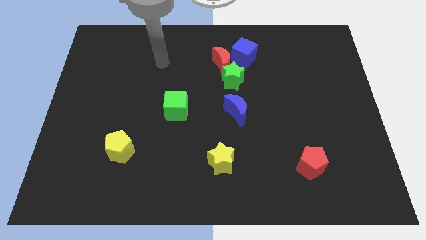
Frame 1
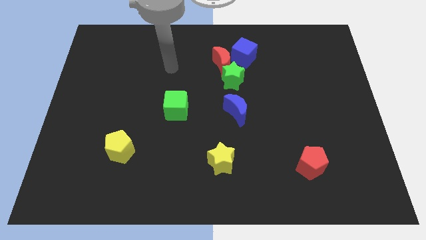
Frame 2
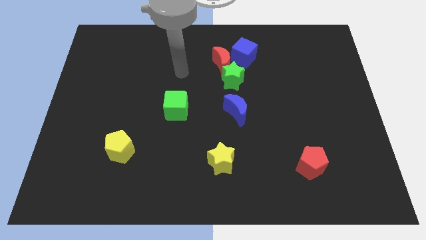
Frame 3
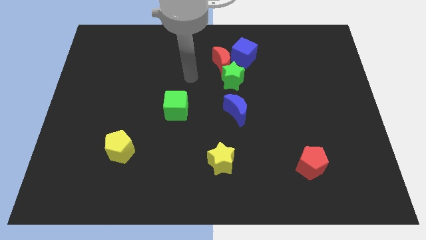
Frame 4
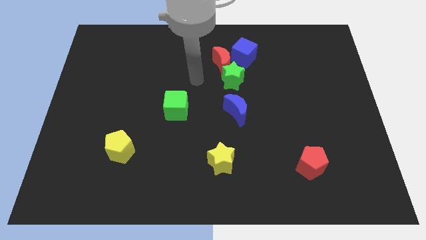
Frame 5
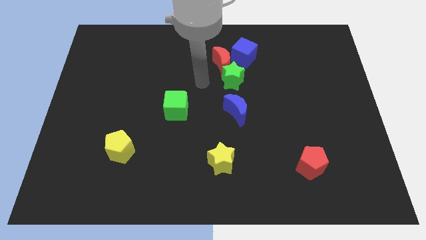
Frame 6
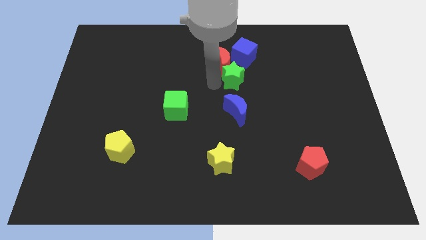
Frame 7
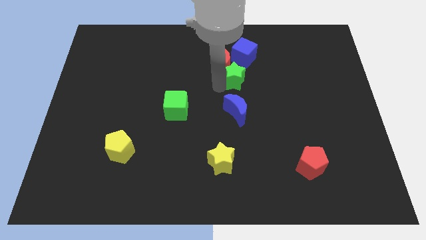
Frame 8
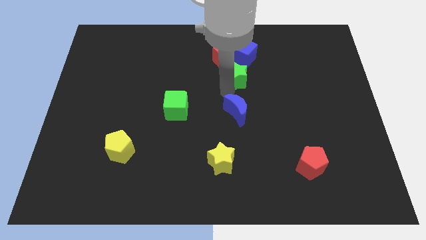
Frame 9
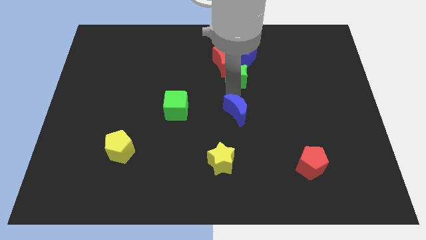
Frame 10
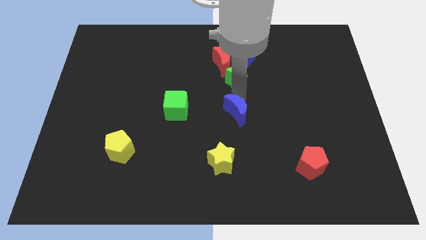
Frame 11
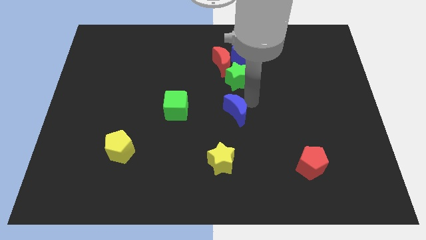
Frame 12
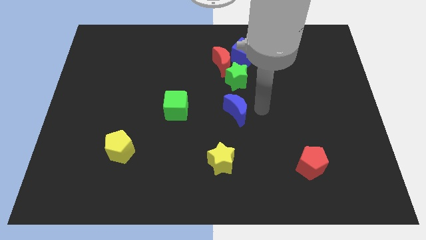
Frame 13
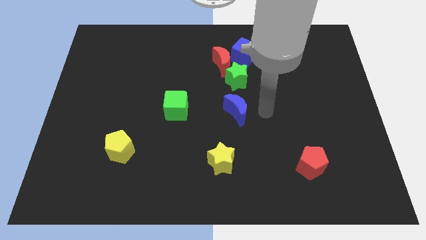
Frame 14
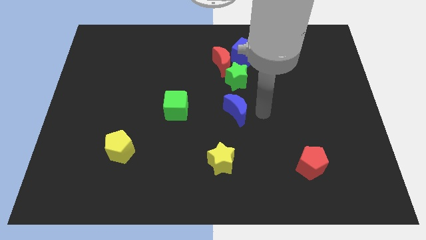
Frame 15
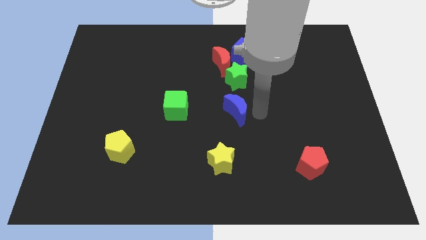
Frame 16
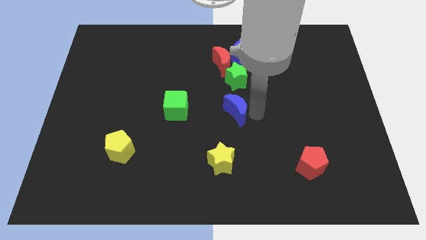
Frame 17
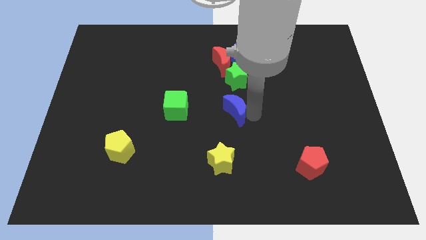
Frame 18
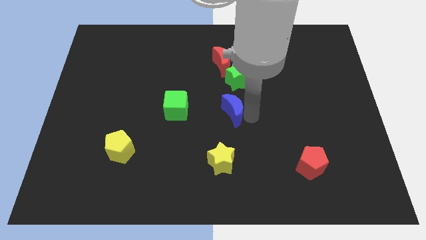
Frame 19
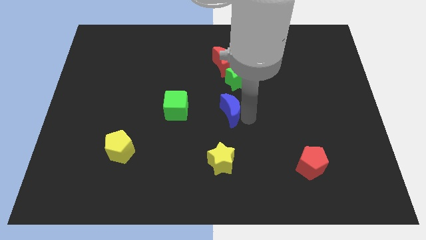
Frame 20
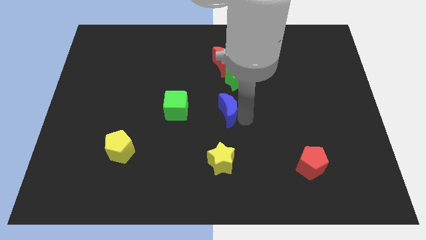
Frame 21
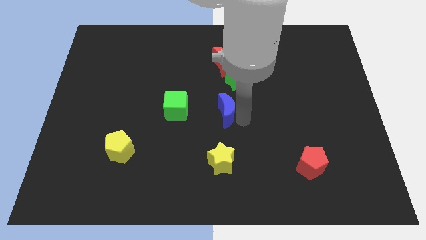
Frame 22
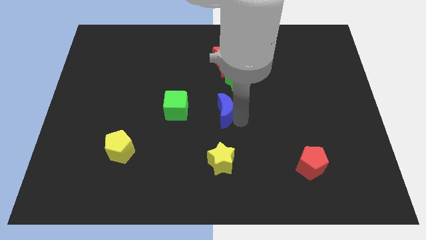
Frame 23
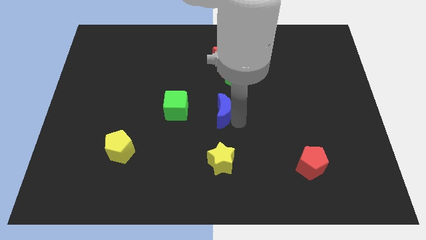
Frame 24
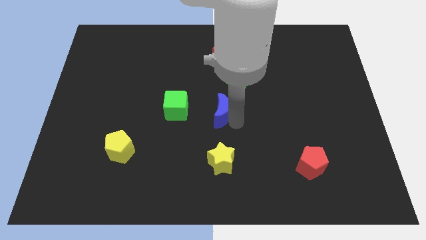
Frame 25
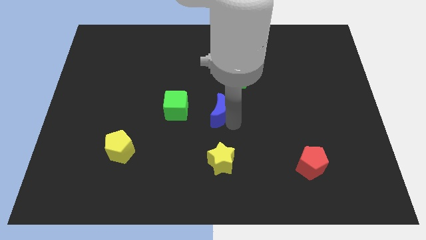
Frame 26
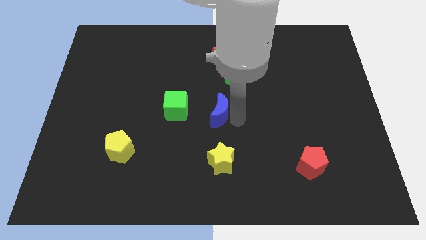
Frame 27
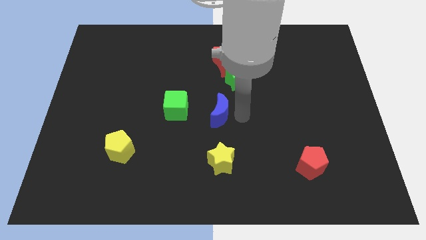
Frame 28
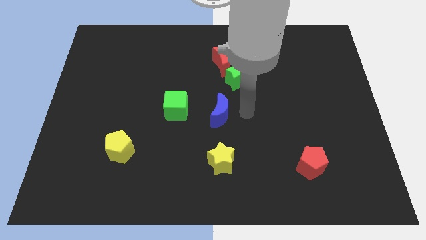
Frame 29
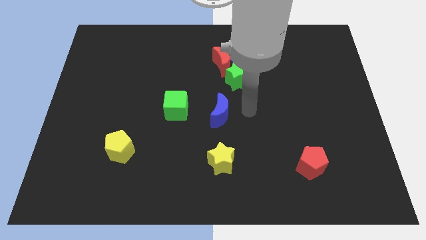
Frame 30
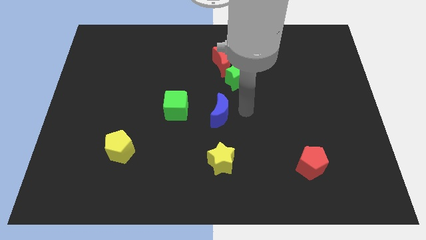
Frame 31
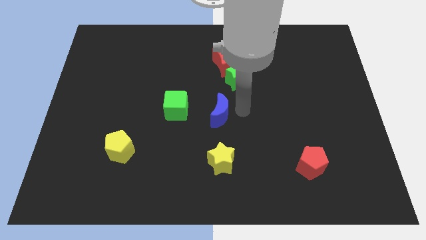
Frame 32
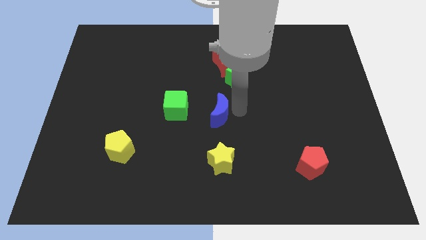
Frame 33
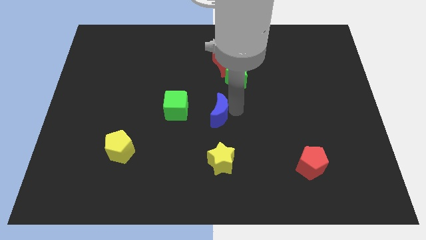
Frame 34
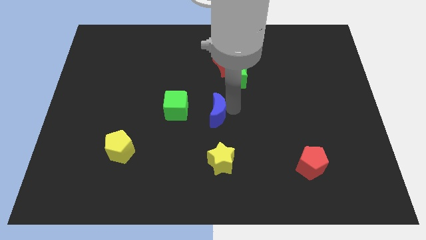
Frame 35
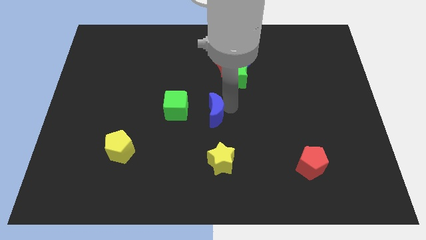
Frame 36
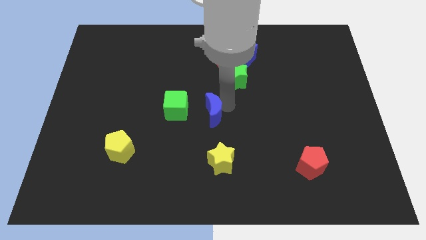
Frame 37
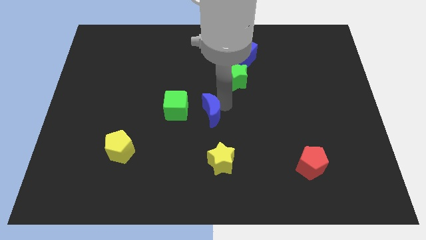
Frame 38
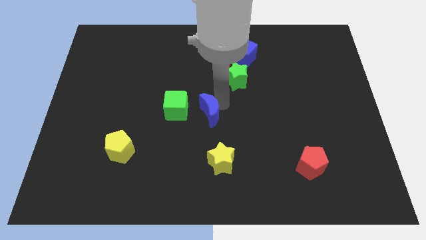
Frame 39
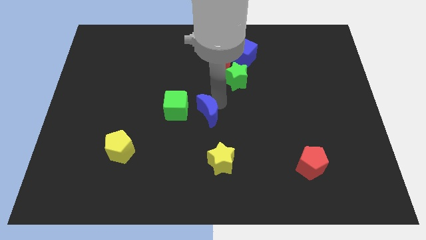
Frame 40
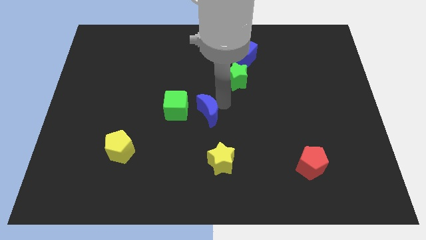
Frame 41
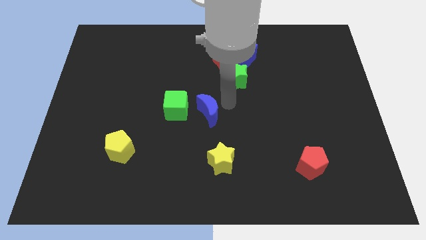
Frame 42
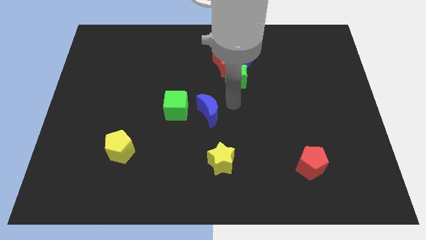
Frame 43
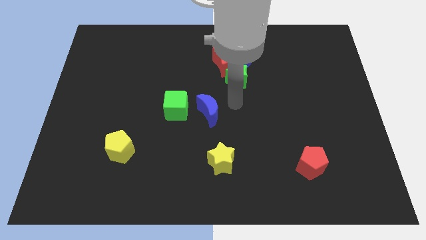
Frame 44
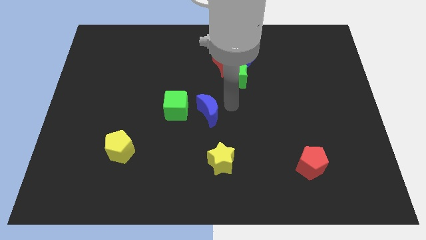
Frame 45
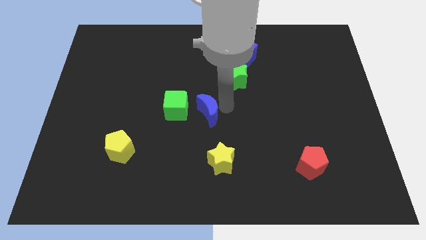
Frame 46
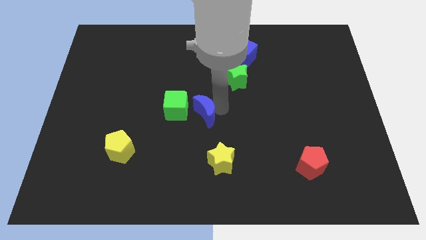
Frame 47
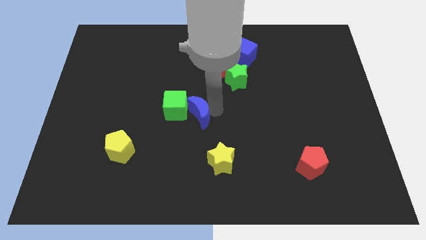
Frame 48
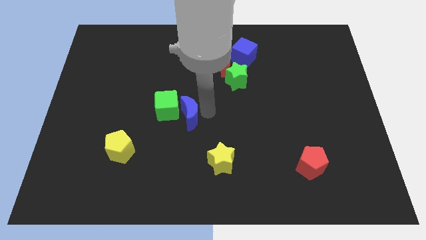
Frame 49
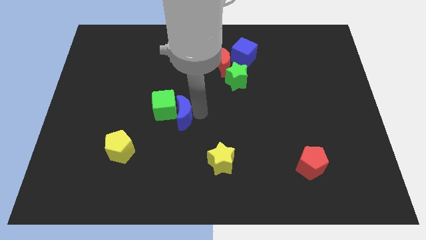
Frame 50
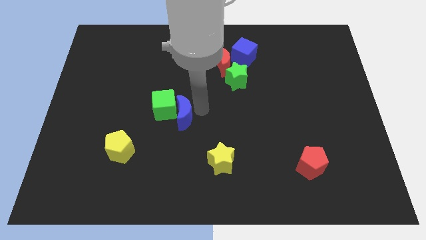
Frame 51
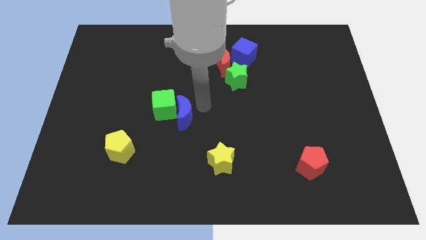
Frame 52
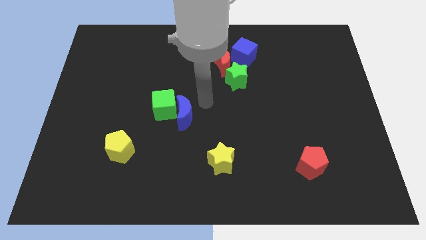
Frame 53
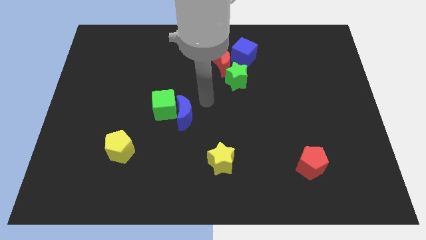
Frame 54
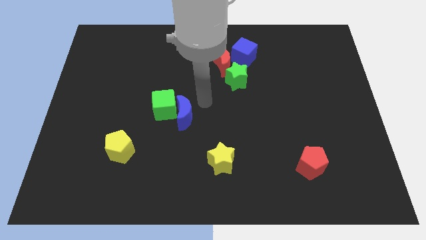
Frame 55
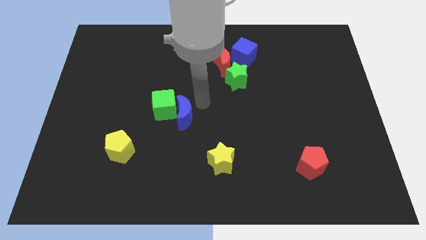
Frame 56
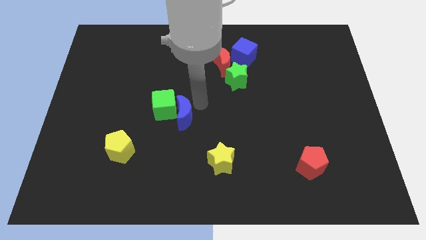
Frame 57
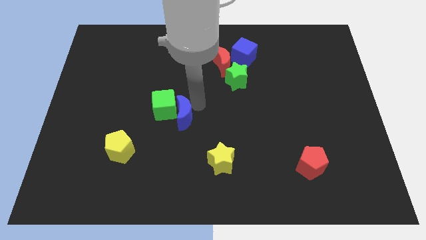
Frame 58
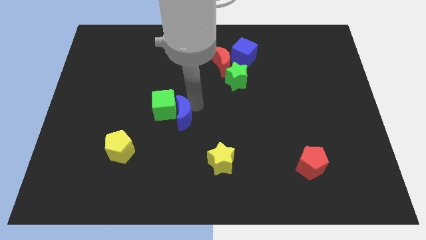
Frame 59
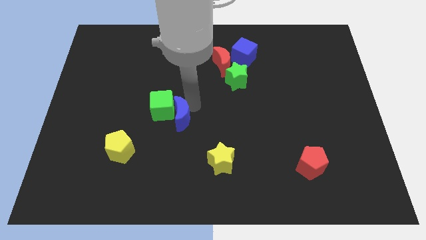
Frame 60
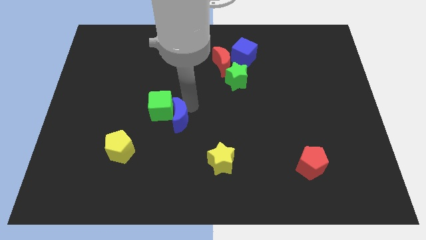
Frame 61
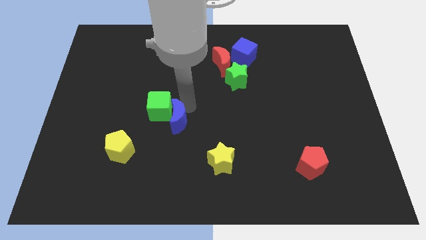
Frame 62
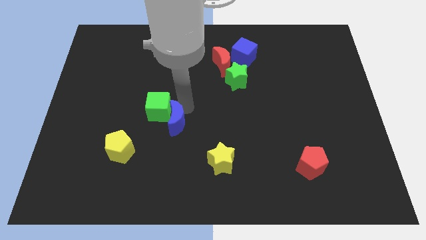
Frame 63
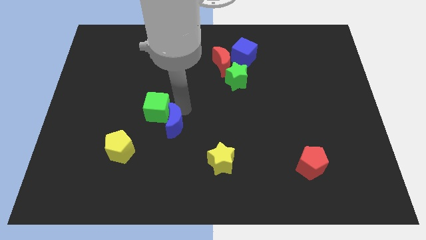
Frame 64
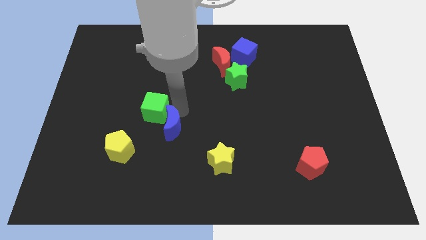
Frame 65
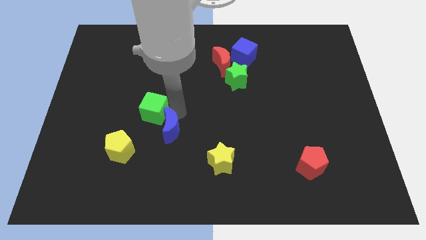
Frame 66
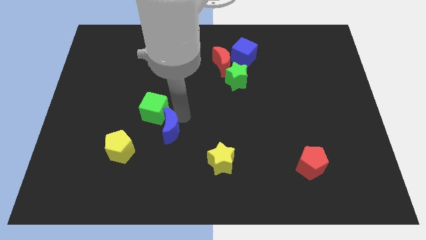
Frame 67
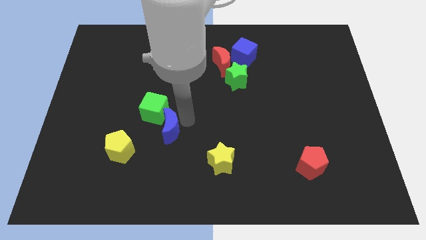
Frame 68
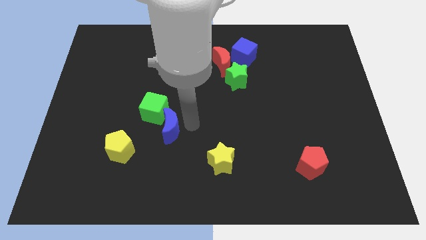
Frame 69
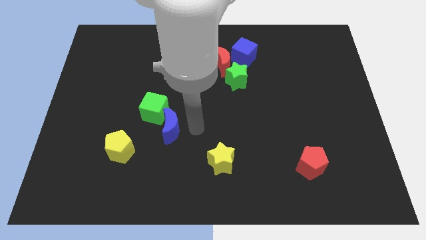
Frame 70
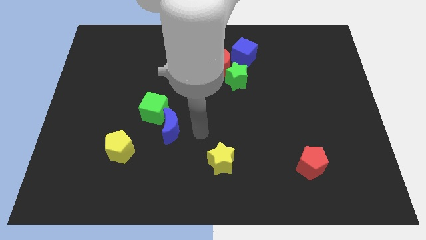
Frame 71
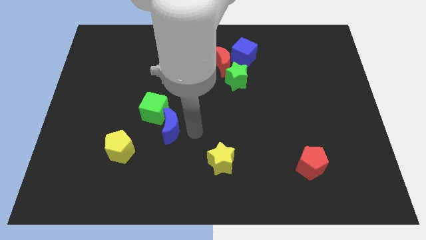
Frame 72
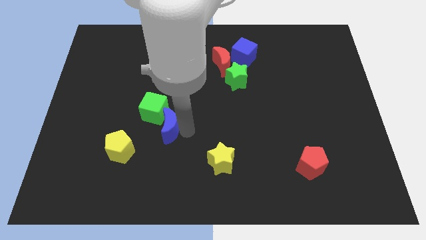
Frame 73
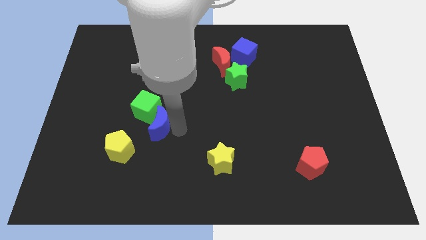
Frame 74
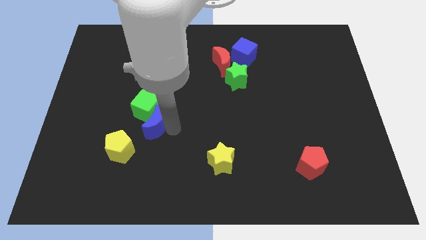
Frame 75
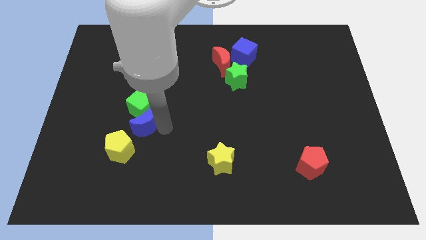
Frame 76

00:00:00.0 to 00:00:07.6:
move the blue moon left

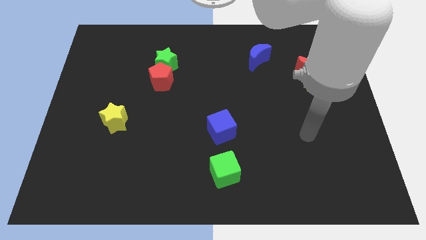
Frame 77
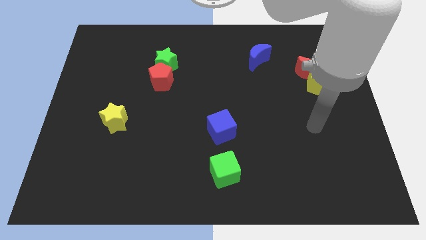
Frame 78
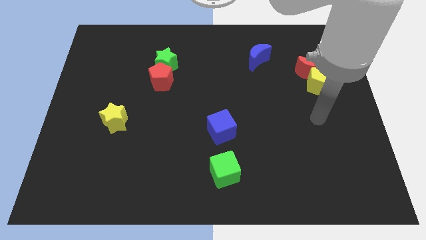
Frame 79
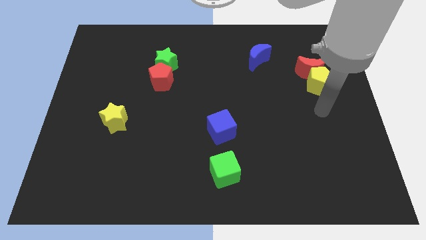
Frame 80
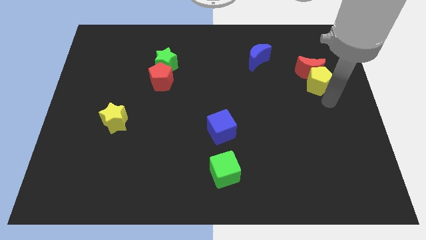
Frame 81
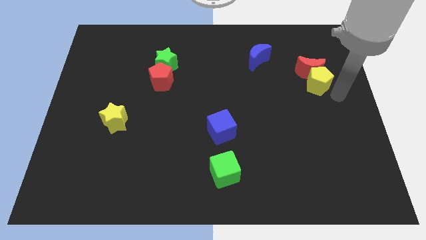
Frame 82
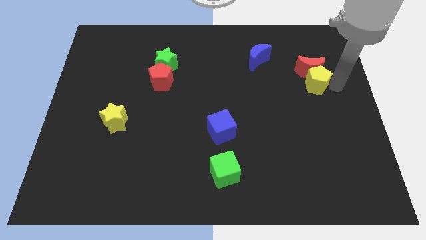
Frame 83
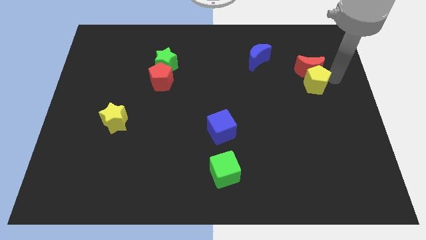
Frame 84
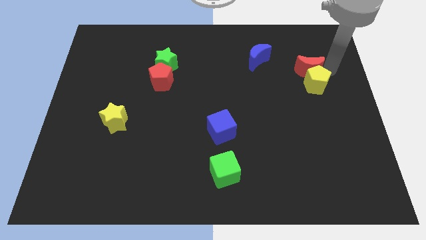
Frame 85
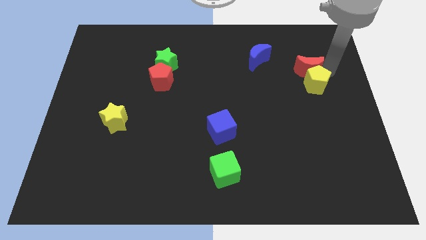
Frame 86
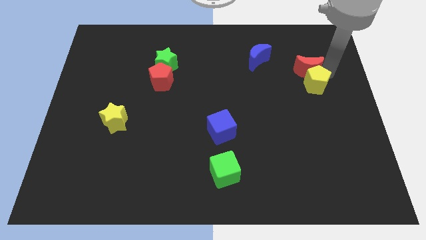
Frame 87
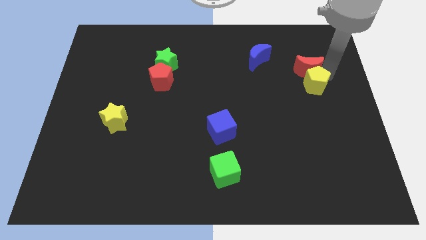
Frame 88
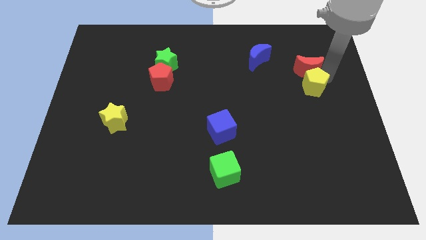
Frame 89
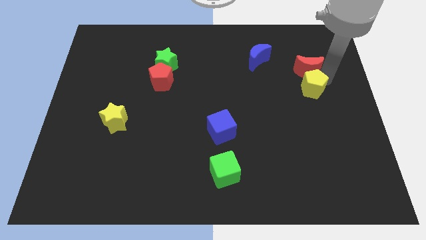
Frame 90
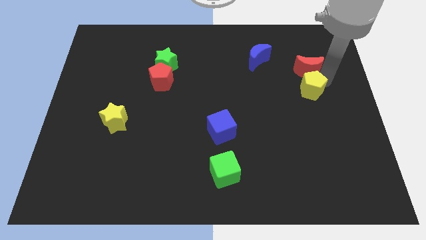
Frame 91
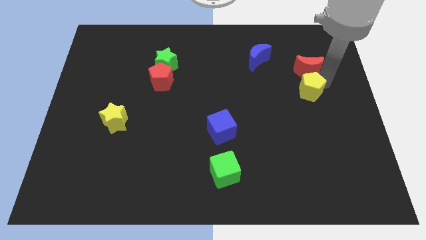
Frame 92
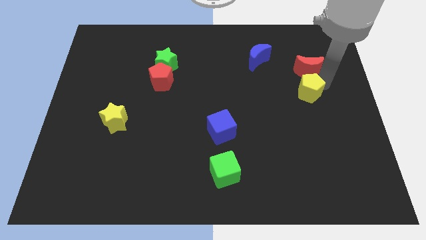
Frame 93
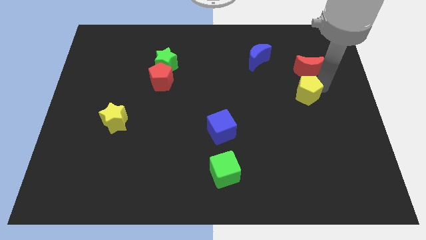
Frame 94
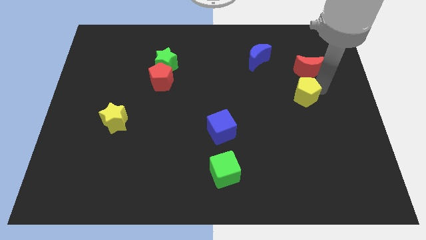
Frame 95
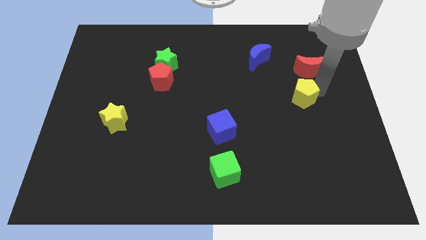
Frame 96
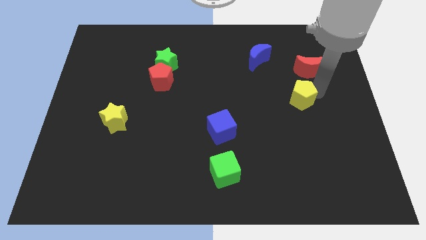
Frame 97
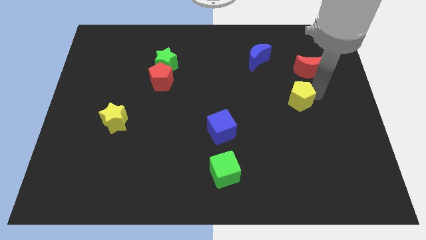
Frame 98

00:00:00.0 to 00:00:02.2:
push the yellow pentagon down and to the left diagonally a bit
